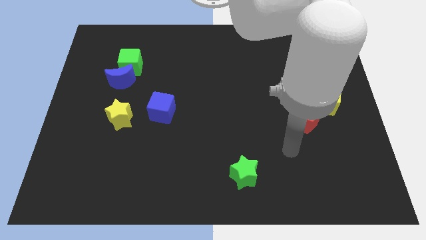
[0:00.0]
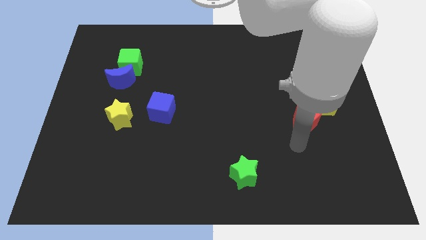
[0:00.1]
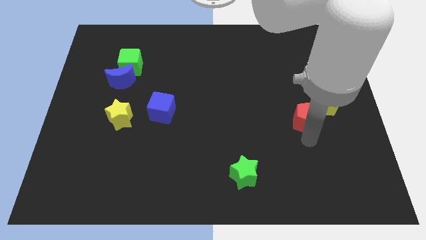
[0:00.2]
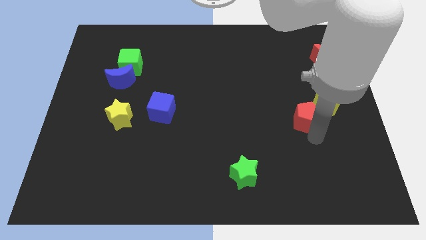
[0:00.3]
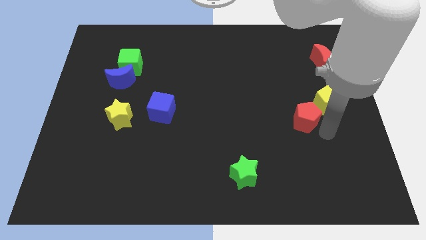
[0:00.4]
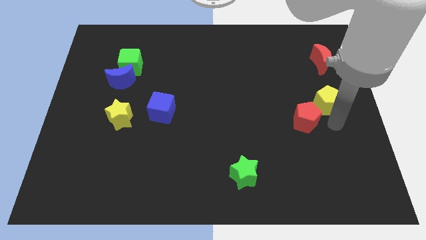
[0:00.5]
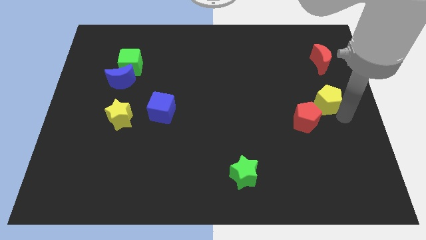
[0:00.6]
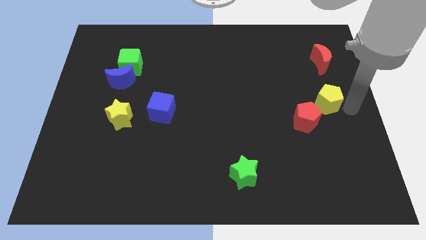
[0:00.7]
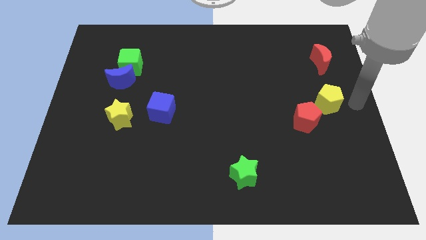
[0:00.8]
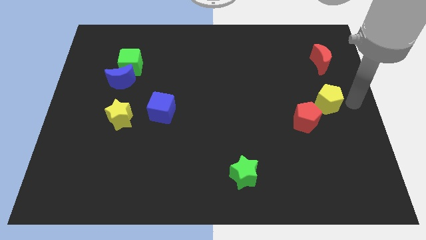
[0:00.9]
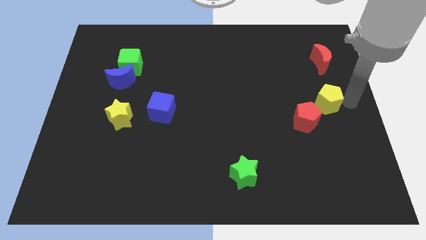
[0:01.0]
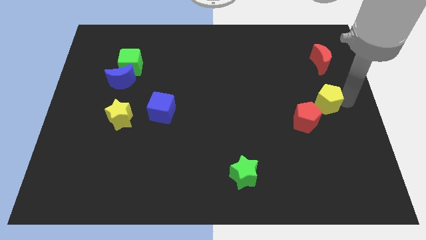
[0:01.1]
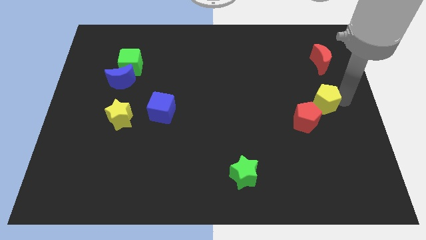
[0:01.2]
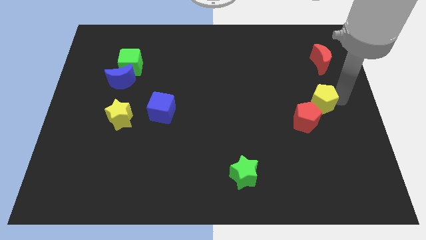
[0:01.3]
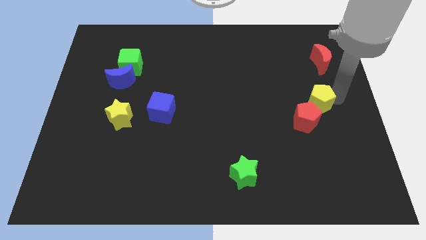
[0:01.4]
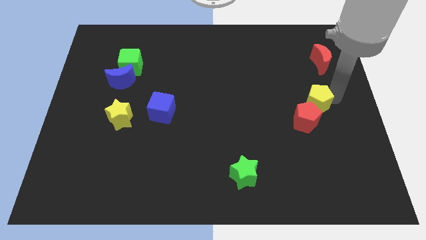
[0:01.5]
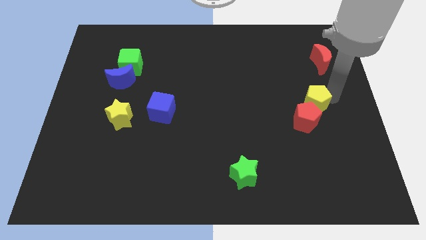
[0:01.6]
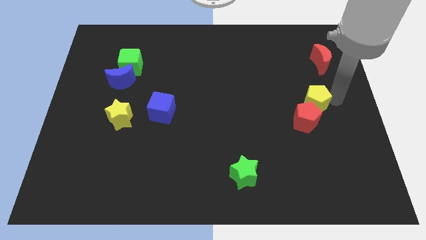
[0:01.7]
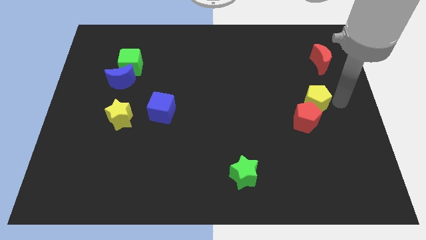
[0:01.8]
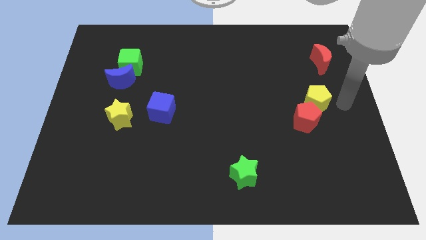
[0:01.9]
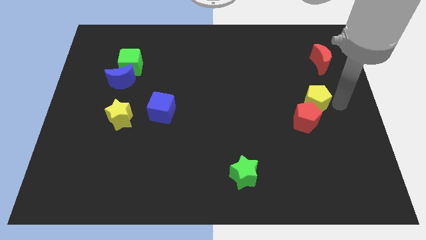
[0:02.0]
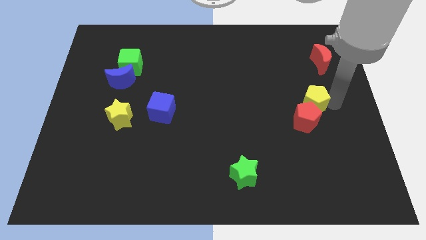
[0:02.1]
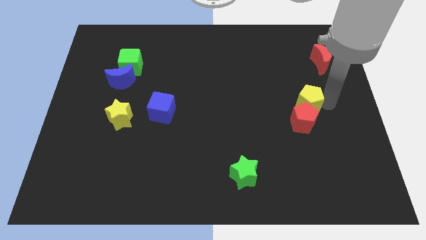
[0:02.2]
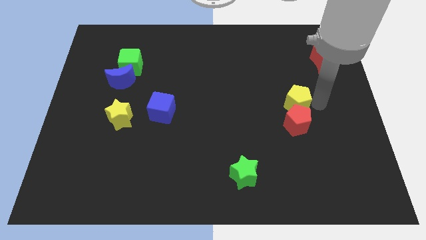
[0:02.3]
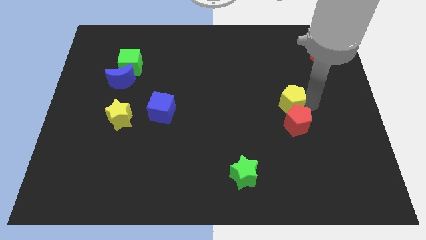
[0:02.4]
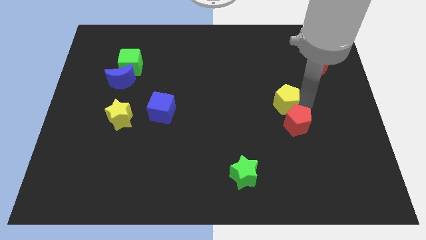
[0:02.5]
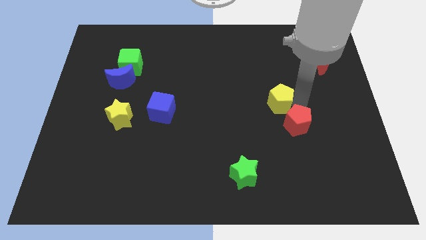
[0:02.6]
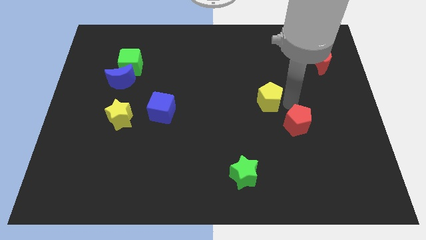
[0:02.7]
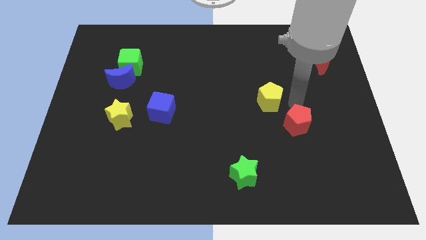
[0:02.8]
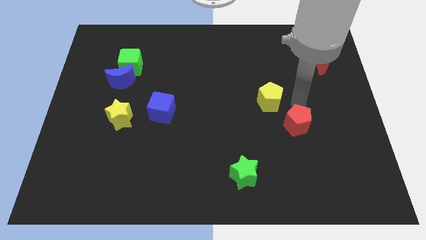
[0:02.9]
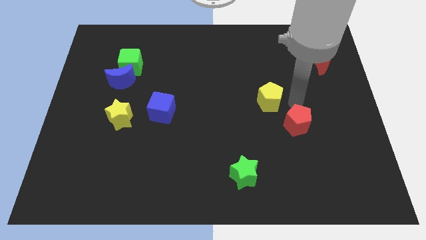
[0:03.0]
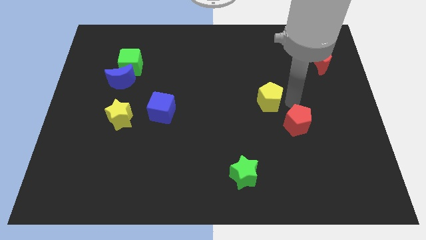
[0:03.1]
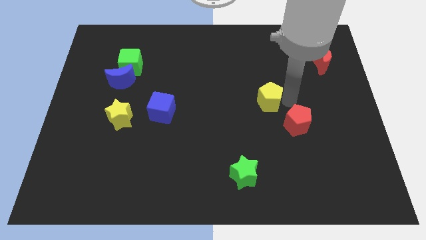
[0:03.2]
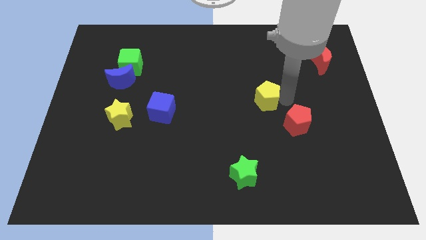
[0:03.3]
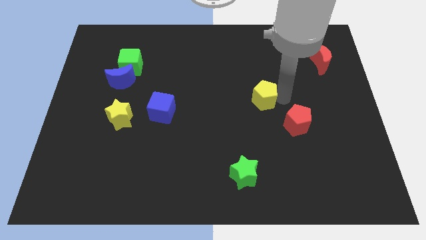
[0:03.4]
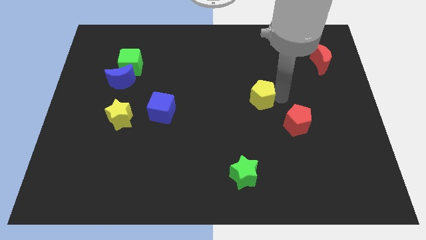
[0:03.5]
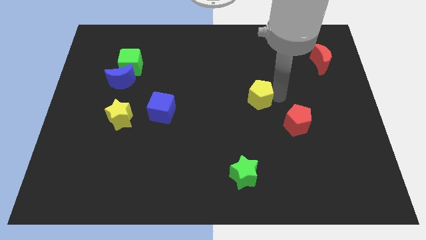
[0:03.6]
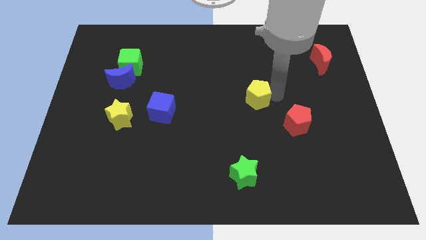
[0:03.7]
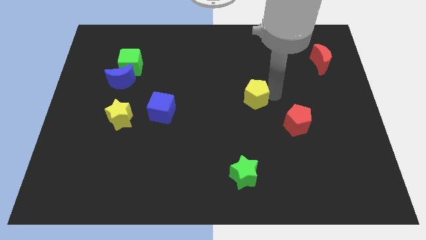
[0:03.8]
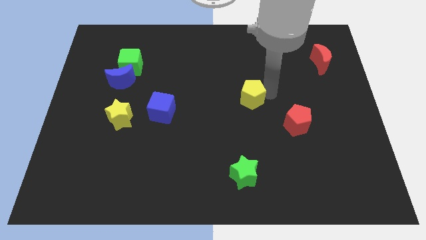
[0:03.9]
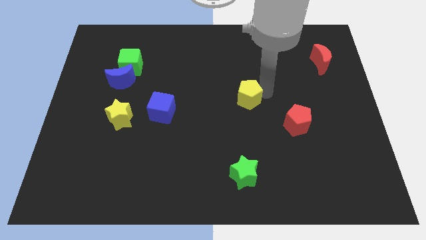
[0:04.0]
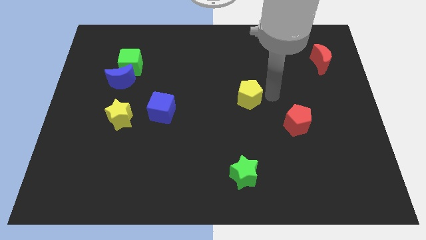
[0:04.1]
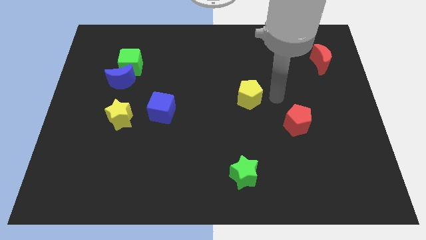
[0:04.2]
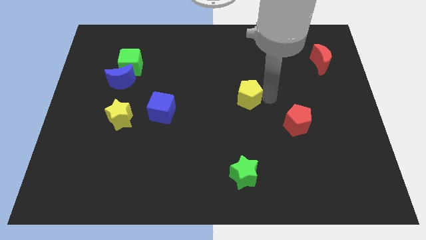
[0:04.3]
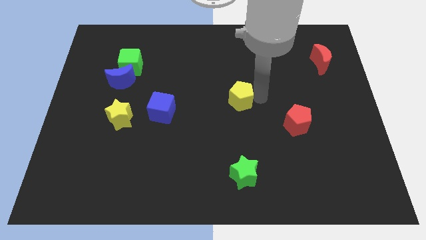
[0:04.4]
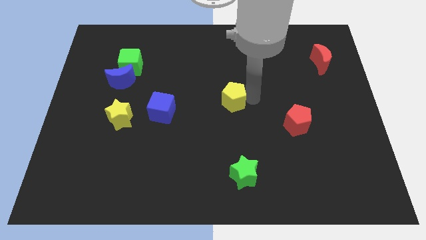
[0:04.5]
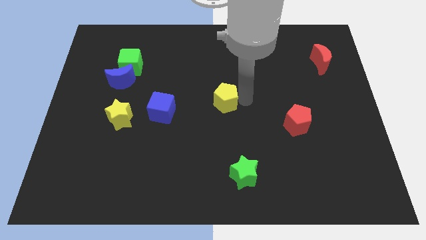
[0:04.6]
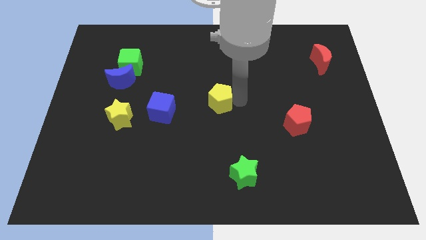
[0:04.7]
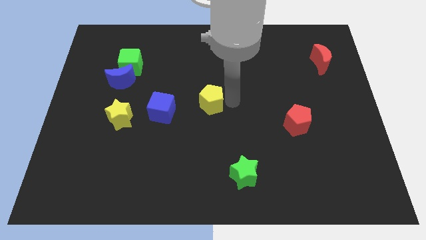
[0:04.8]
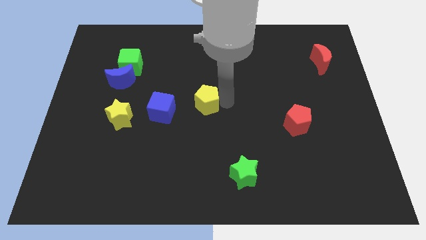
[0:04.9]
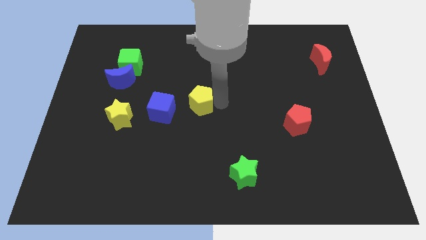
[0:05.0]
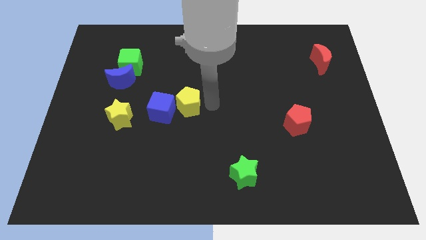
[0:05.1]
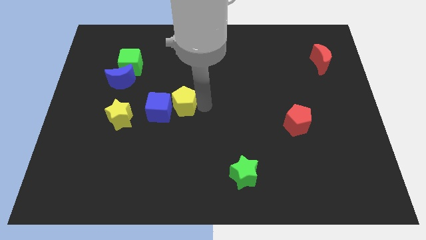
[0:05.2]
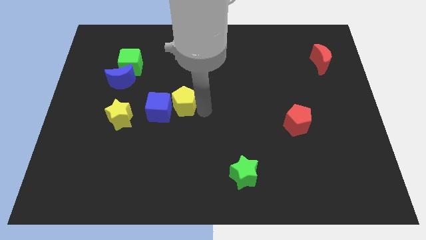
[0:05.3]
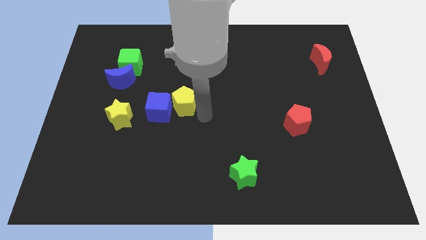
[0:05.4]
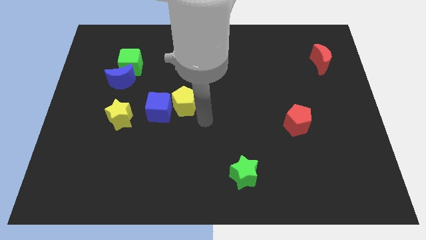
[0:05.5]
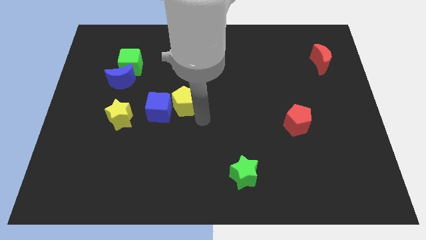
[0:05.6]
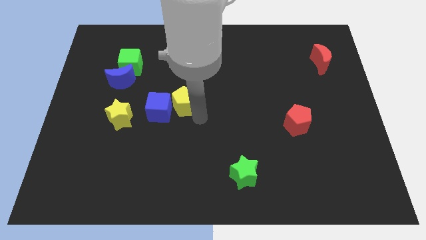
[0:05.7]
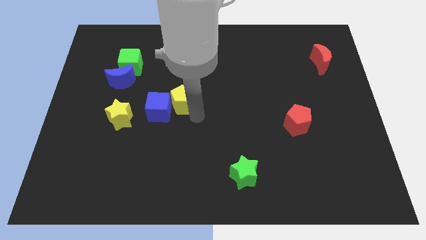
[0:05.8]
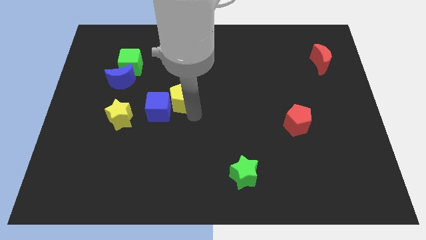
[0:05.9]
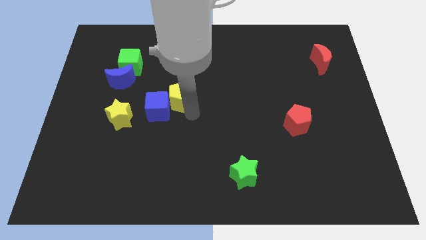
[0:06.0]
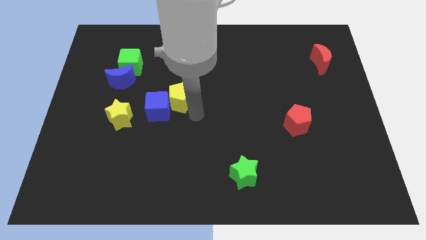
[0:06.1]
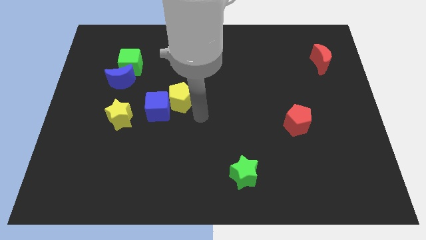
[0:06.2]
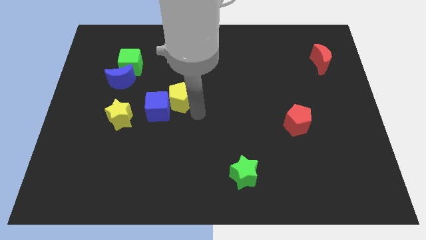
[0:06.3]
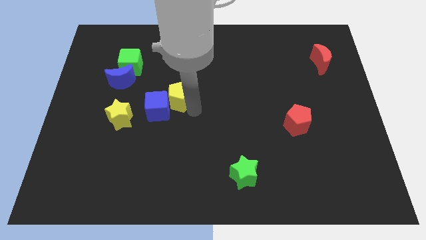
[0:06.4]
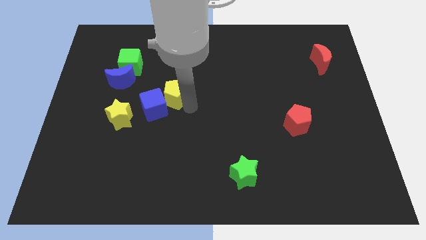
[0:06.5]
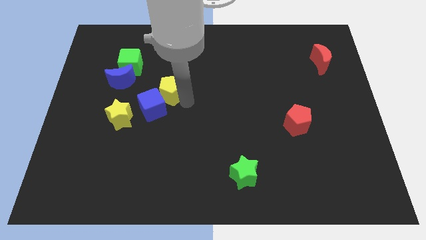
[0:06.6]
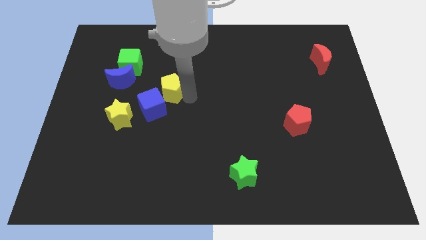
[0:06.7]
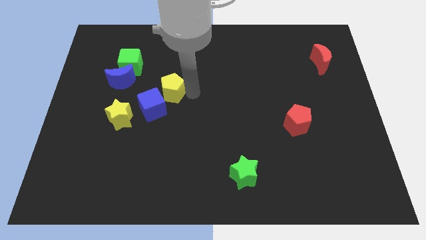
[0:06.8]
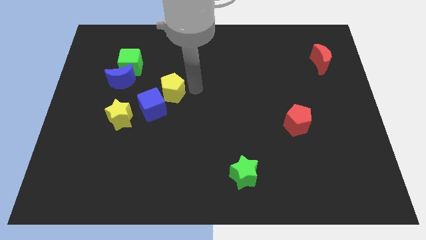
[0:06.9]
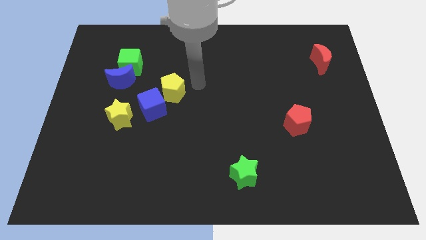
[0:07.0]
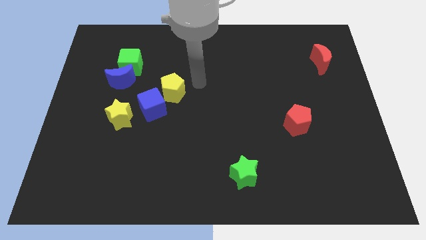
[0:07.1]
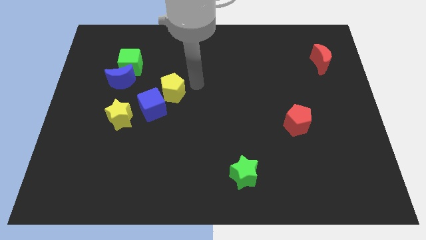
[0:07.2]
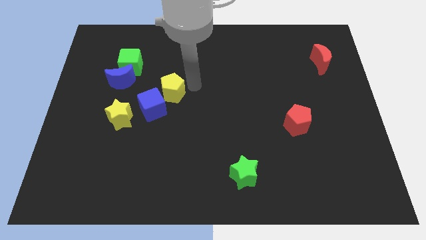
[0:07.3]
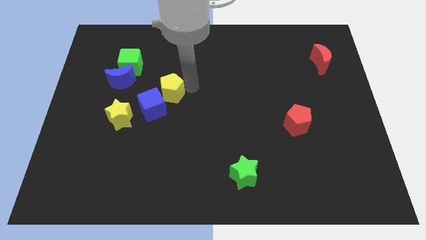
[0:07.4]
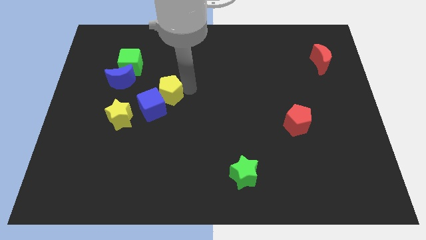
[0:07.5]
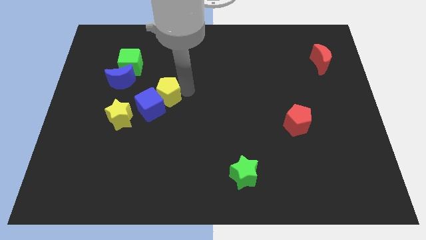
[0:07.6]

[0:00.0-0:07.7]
move the yellow pentagon to the top right of the yellow star

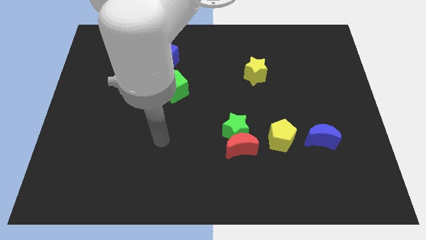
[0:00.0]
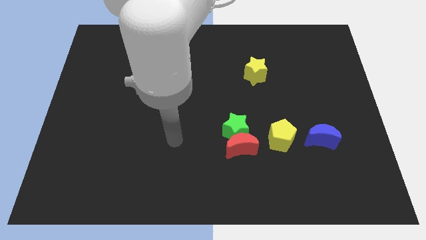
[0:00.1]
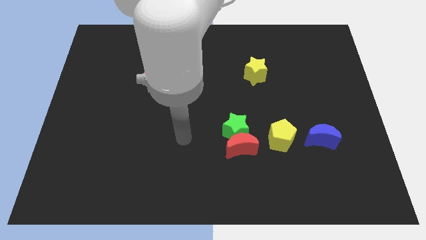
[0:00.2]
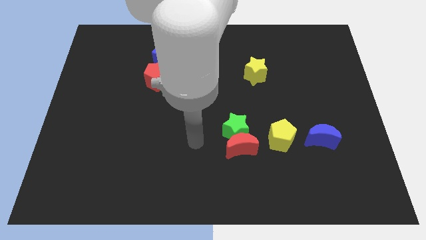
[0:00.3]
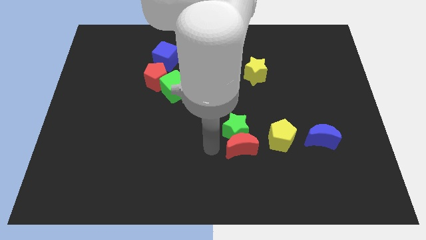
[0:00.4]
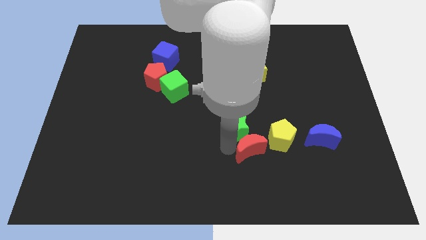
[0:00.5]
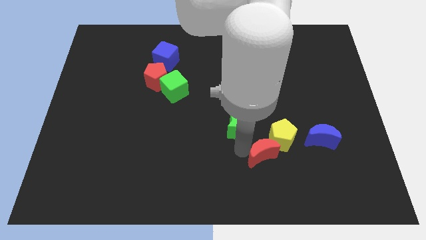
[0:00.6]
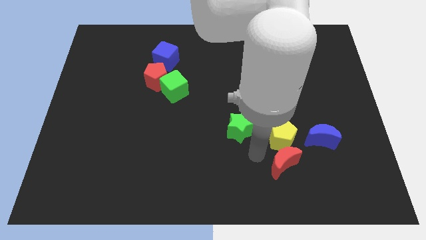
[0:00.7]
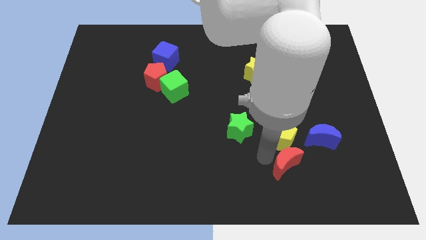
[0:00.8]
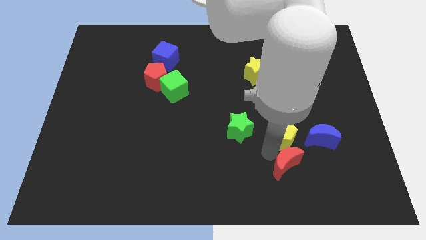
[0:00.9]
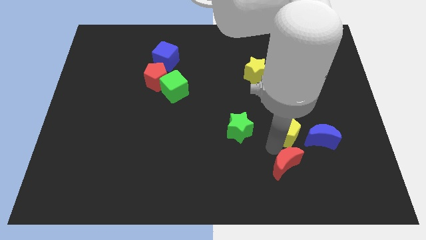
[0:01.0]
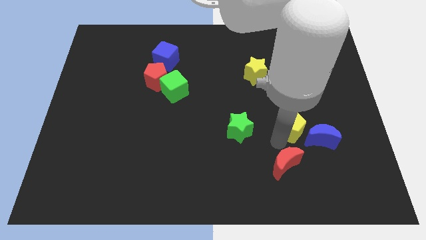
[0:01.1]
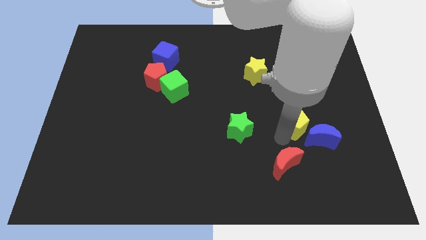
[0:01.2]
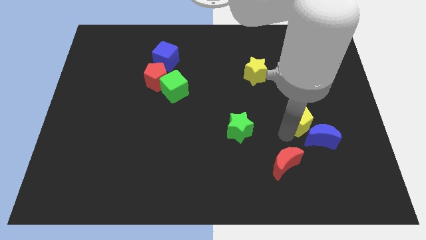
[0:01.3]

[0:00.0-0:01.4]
push the yellow pentagon to the top side of the blue moon
